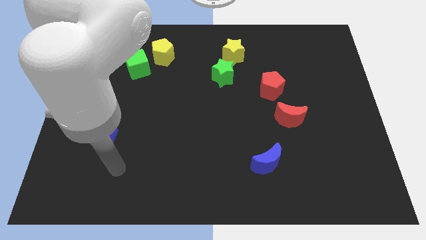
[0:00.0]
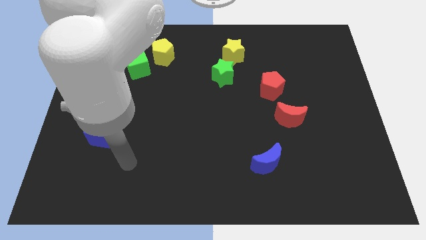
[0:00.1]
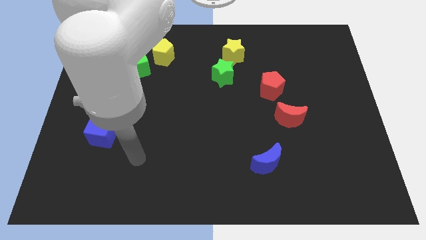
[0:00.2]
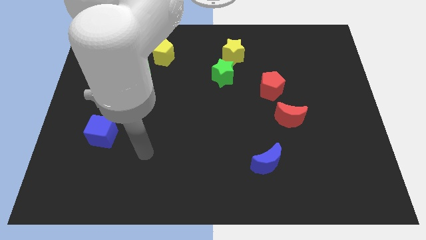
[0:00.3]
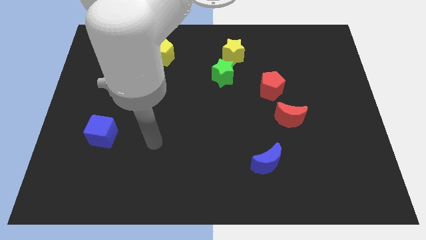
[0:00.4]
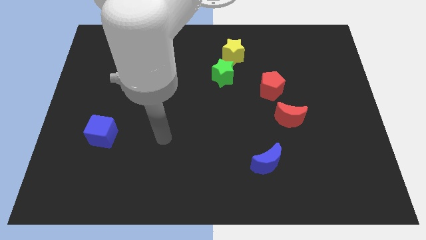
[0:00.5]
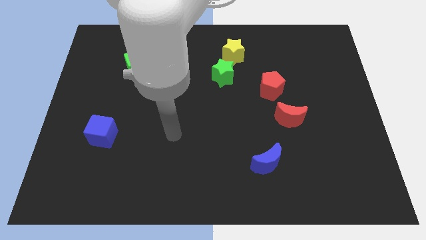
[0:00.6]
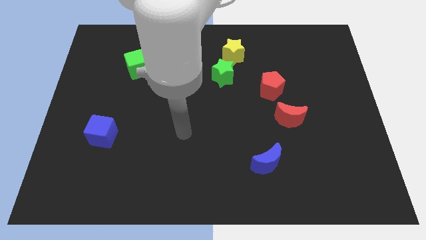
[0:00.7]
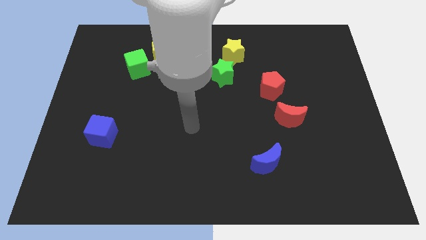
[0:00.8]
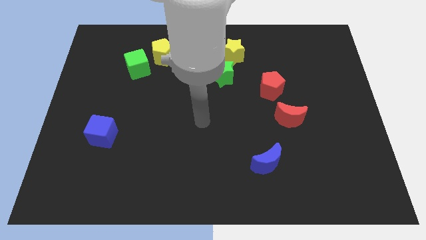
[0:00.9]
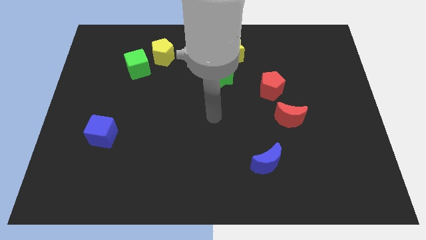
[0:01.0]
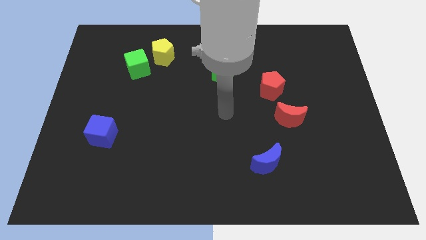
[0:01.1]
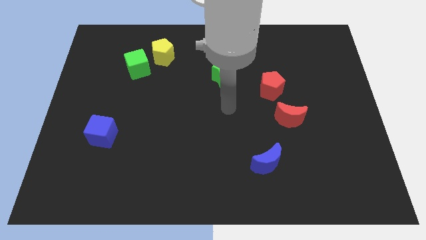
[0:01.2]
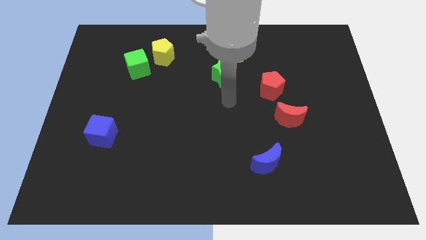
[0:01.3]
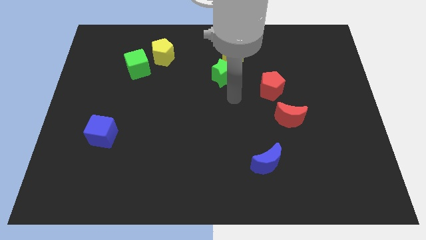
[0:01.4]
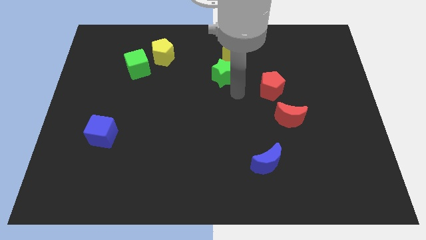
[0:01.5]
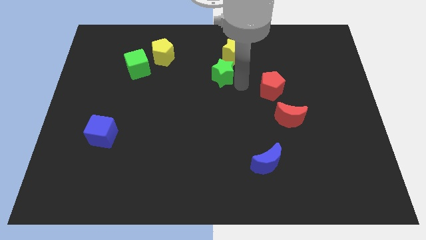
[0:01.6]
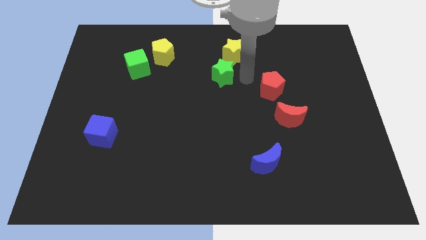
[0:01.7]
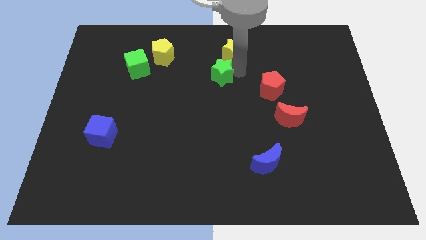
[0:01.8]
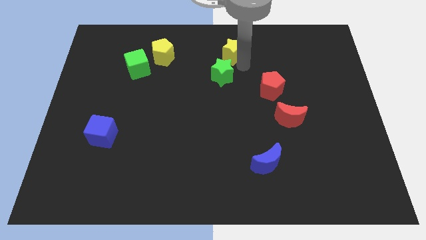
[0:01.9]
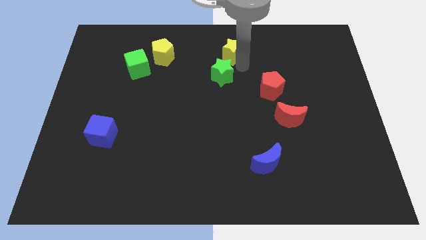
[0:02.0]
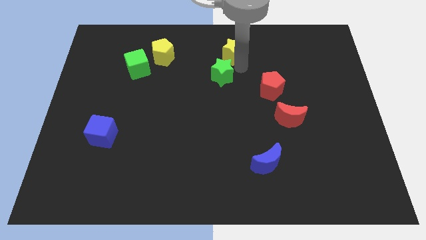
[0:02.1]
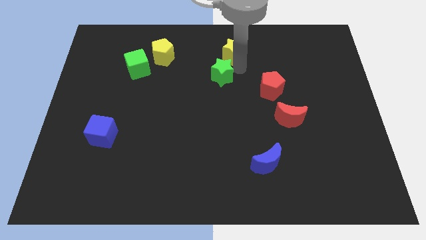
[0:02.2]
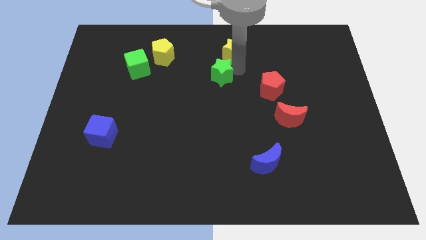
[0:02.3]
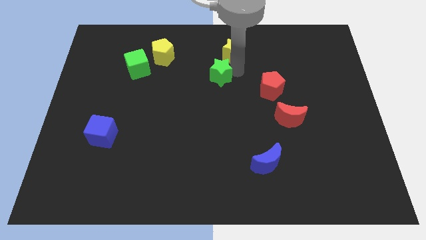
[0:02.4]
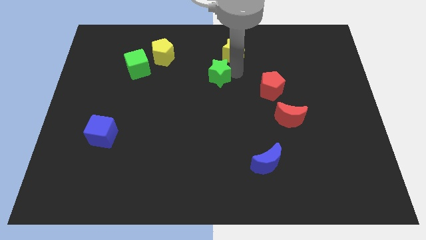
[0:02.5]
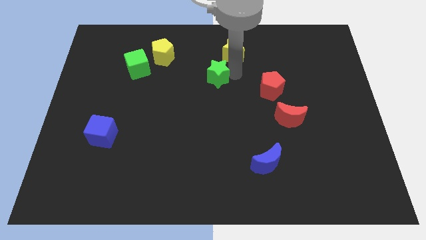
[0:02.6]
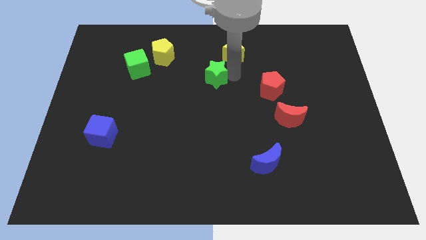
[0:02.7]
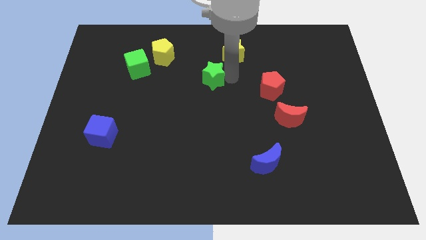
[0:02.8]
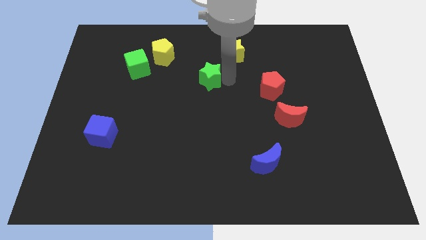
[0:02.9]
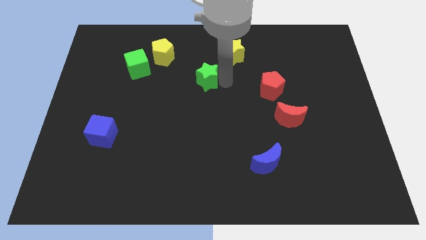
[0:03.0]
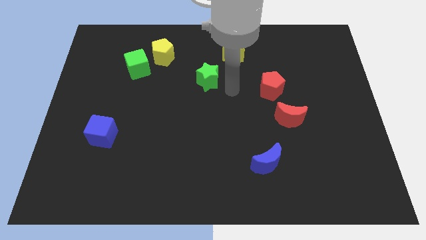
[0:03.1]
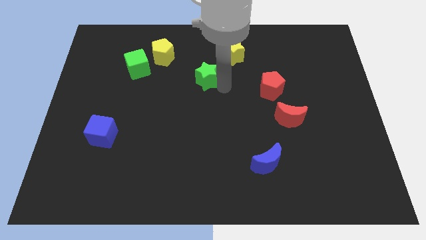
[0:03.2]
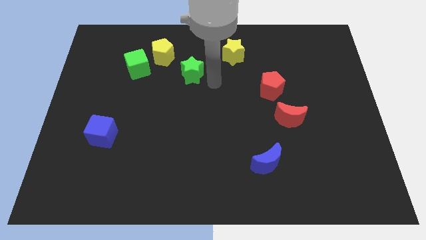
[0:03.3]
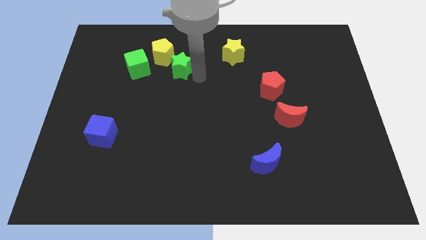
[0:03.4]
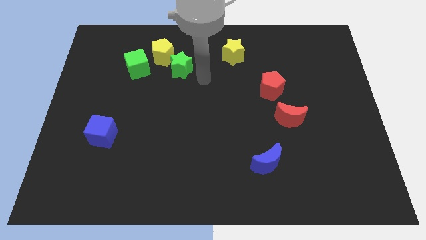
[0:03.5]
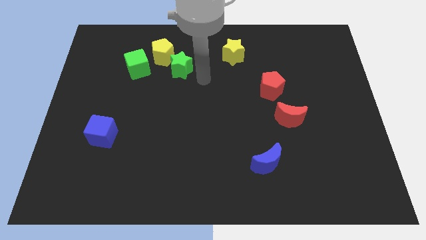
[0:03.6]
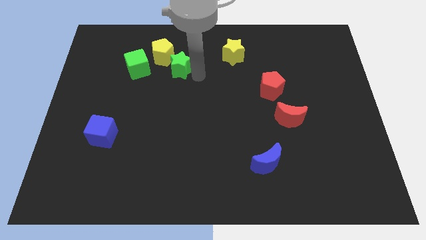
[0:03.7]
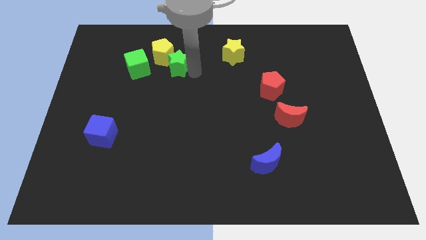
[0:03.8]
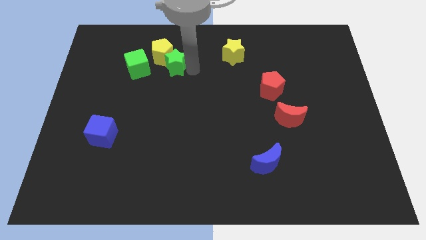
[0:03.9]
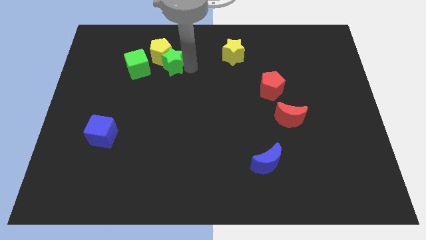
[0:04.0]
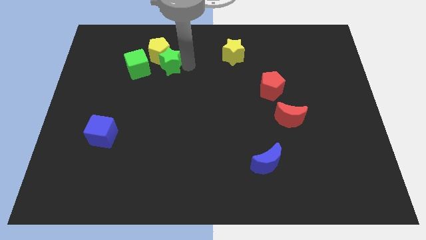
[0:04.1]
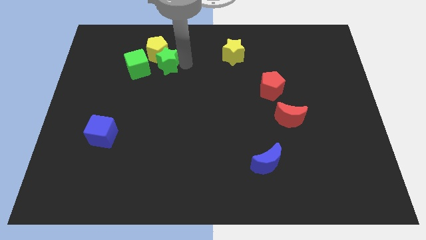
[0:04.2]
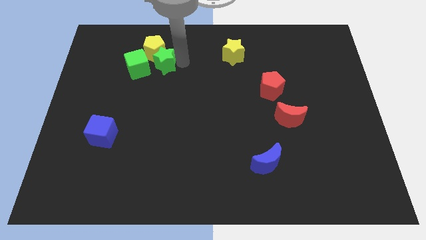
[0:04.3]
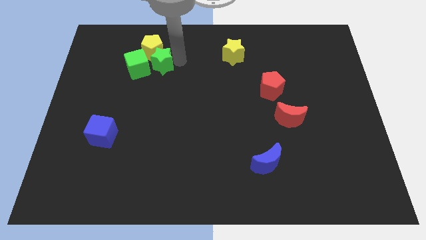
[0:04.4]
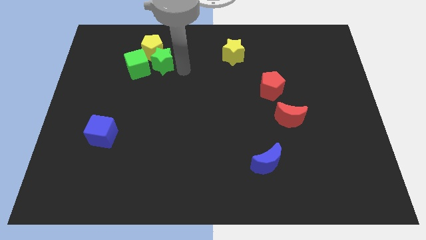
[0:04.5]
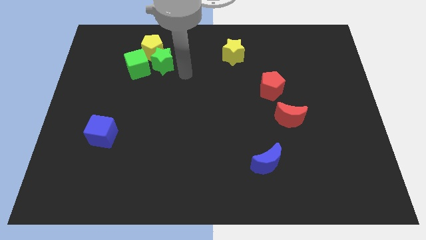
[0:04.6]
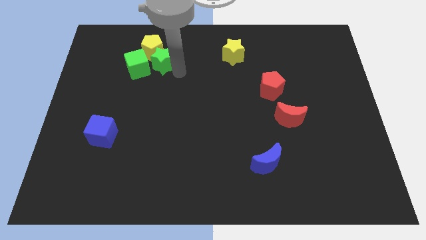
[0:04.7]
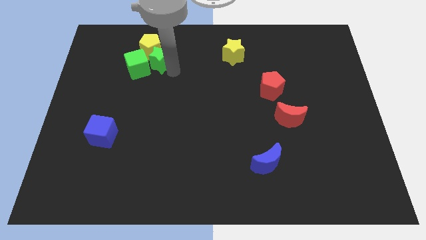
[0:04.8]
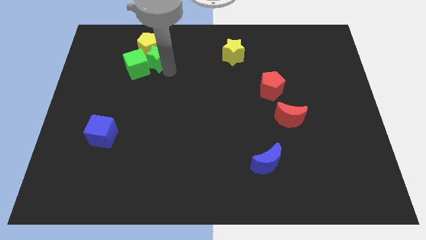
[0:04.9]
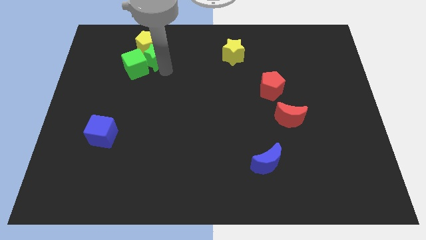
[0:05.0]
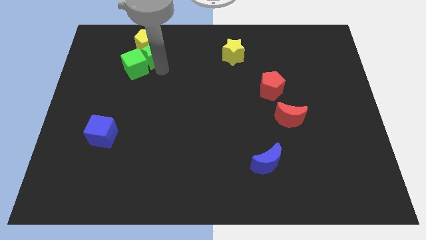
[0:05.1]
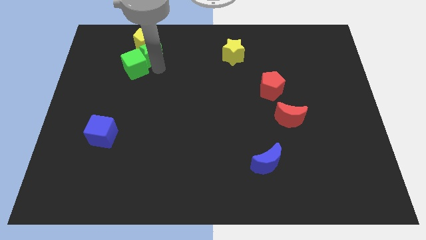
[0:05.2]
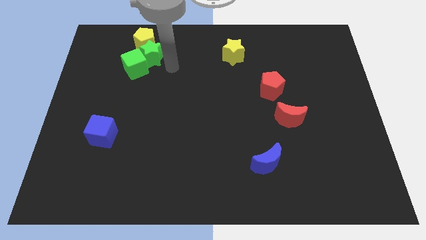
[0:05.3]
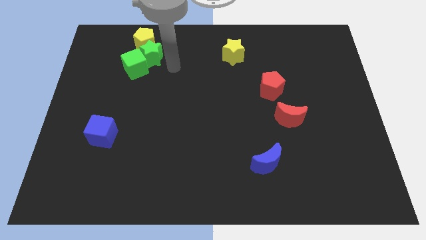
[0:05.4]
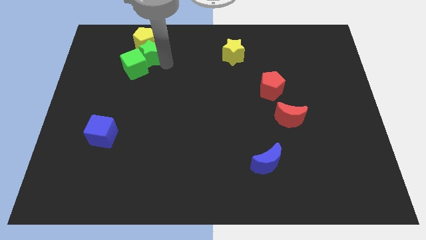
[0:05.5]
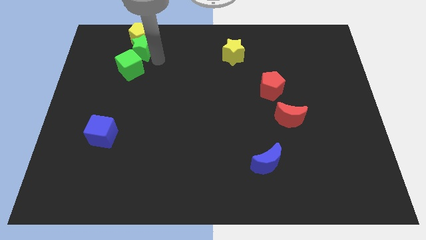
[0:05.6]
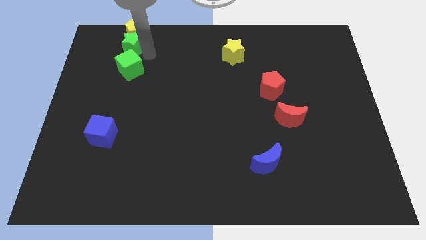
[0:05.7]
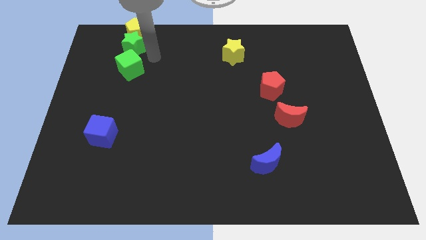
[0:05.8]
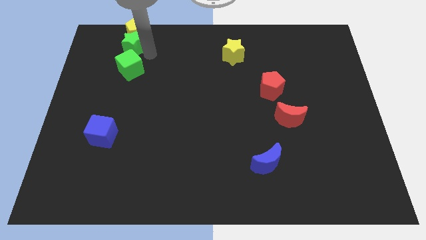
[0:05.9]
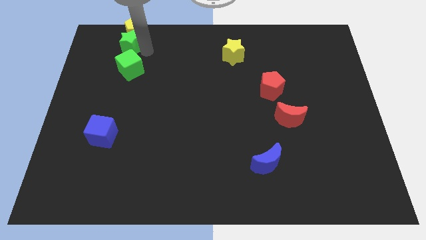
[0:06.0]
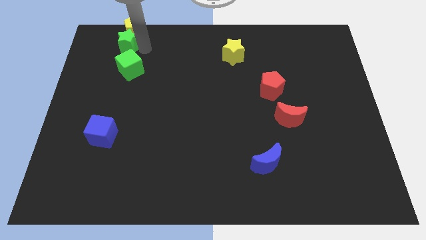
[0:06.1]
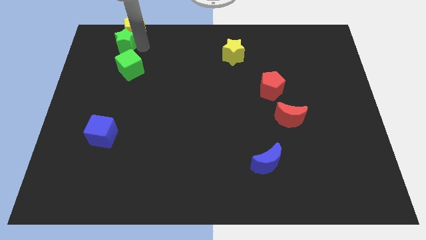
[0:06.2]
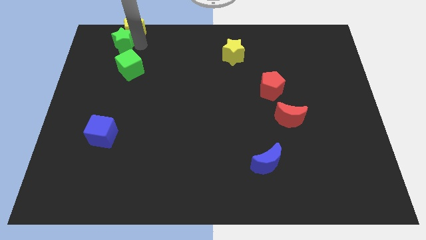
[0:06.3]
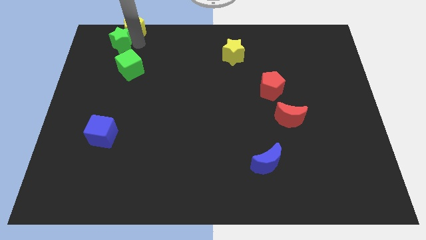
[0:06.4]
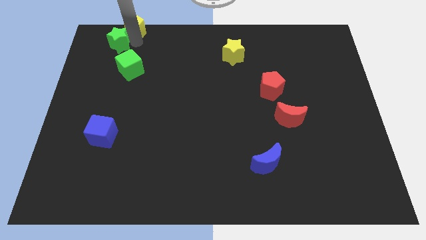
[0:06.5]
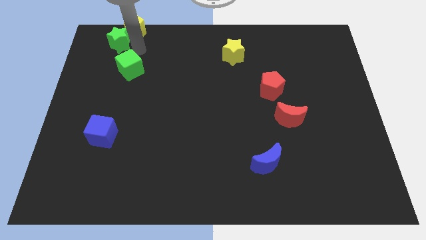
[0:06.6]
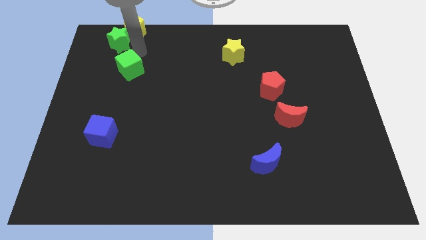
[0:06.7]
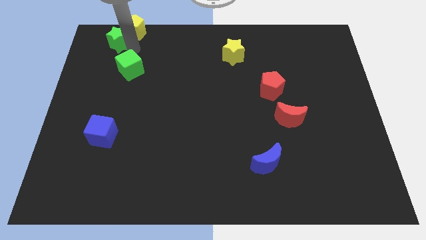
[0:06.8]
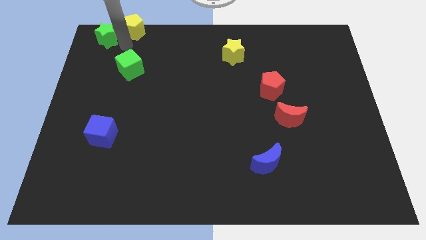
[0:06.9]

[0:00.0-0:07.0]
push the green star to the top left
